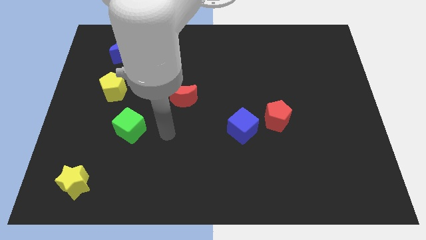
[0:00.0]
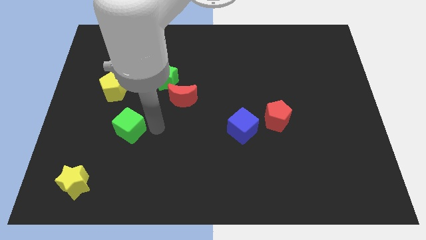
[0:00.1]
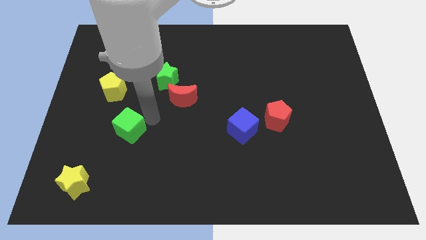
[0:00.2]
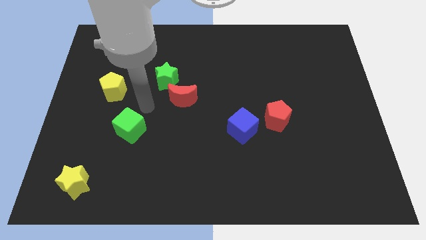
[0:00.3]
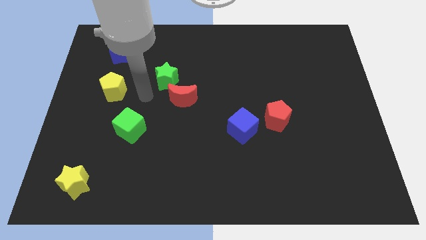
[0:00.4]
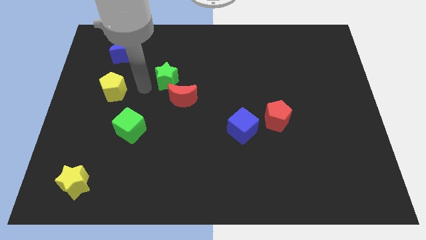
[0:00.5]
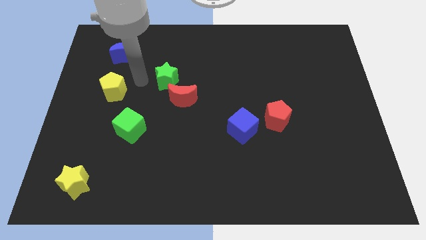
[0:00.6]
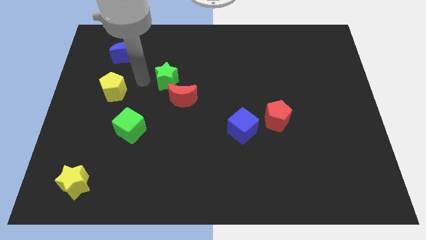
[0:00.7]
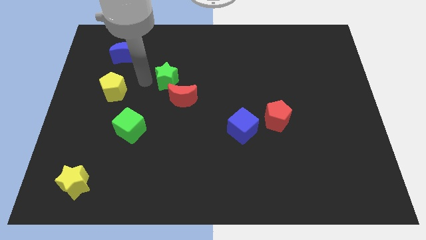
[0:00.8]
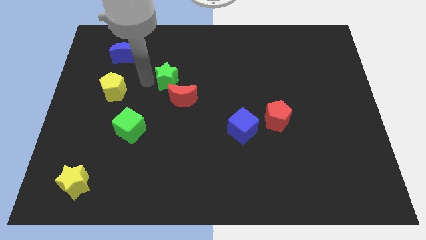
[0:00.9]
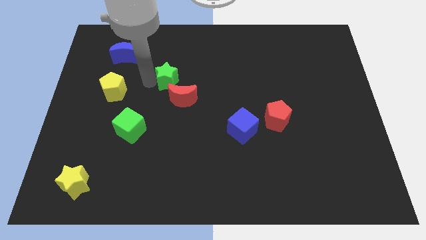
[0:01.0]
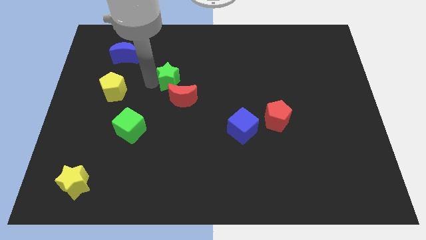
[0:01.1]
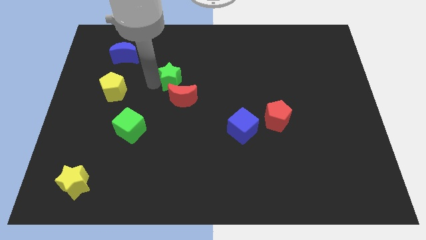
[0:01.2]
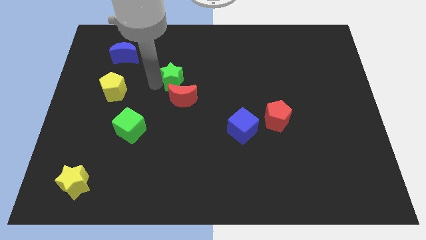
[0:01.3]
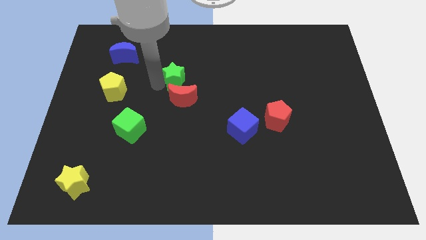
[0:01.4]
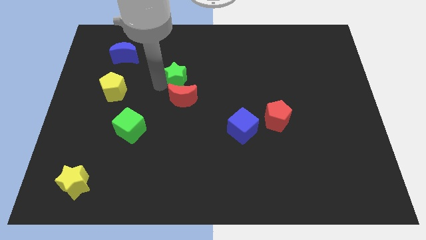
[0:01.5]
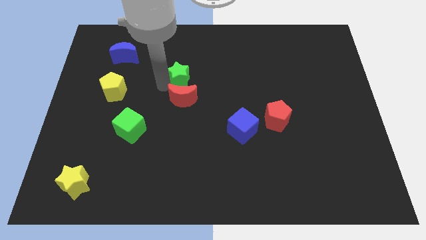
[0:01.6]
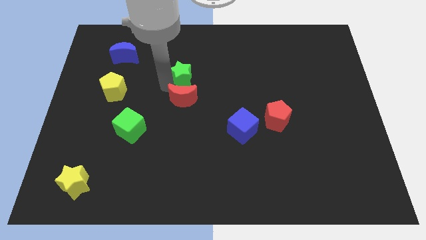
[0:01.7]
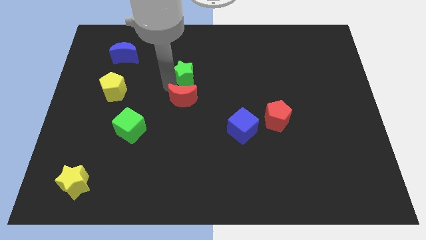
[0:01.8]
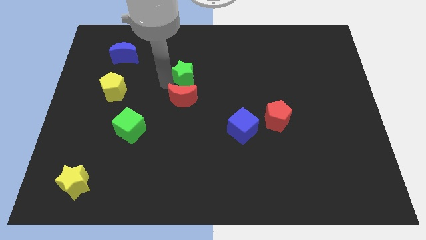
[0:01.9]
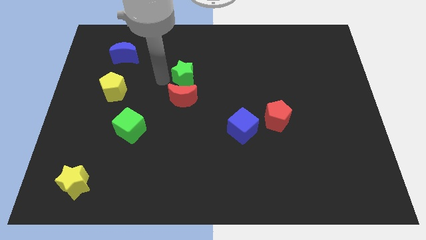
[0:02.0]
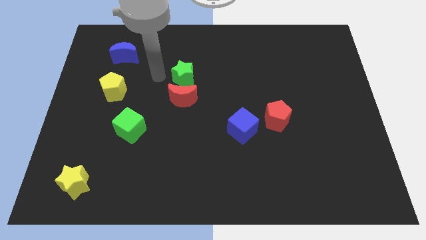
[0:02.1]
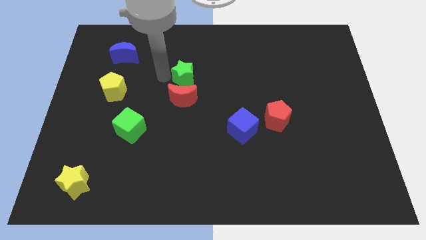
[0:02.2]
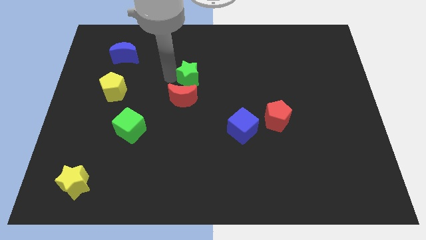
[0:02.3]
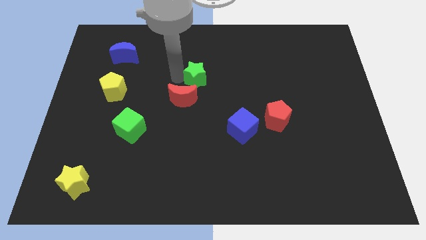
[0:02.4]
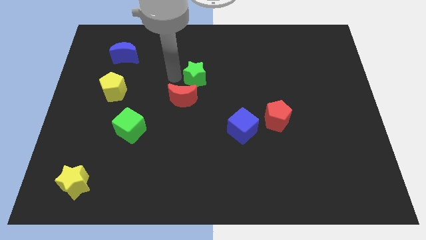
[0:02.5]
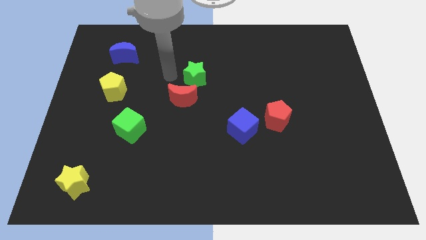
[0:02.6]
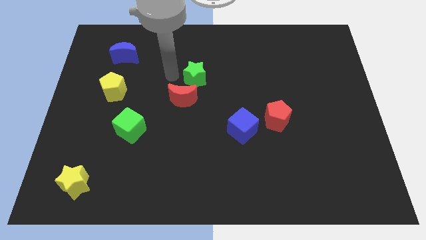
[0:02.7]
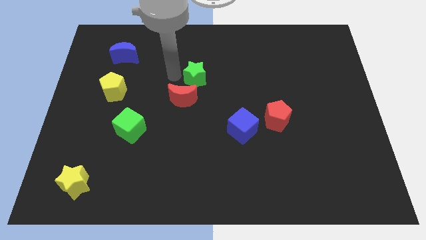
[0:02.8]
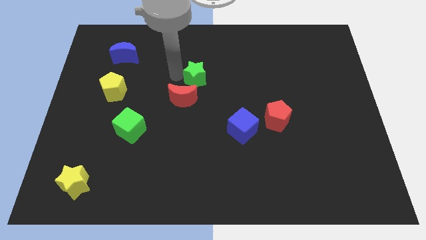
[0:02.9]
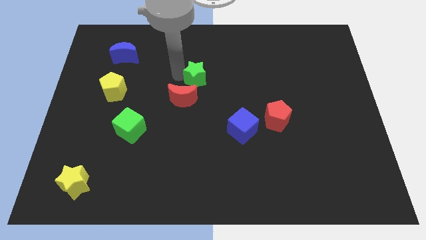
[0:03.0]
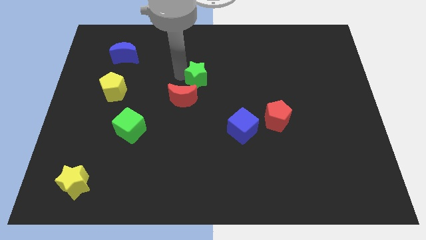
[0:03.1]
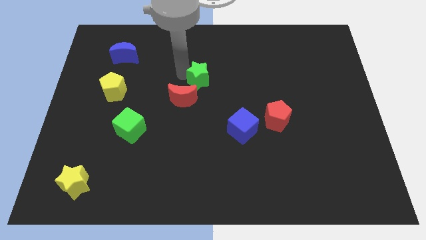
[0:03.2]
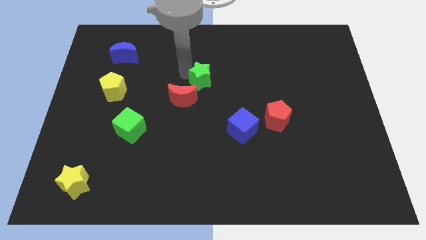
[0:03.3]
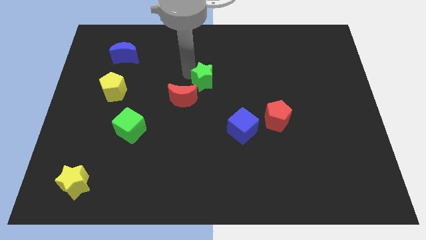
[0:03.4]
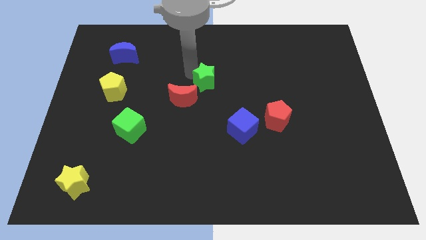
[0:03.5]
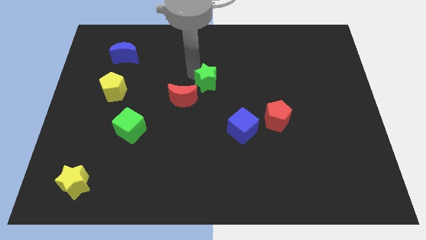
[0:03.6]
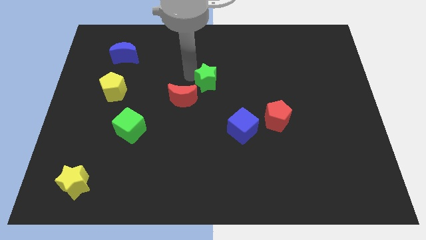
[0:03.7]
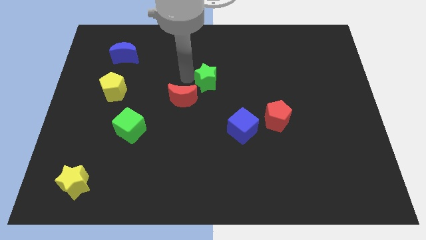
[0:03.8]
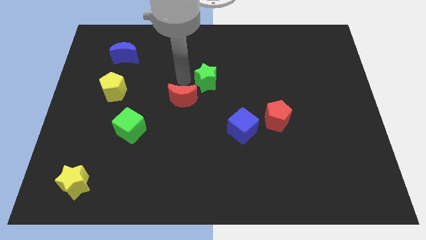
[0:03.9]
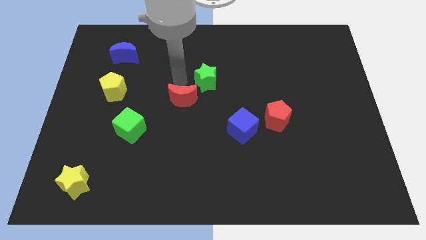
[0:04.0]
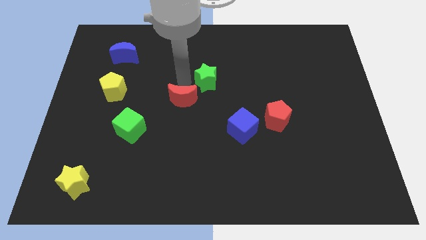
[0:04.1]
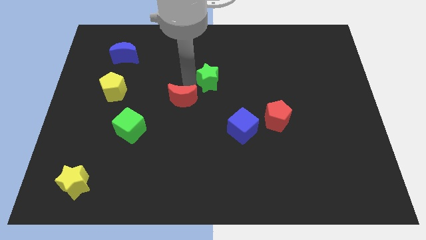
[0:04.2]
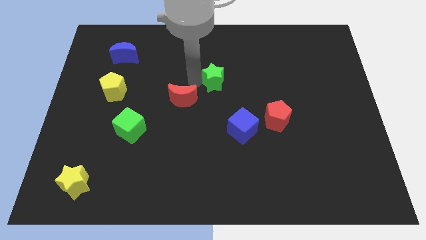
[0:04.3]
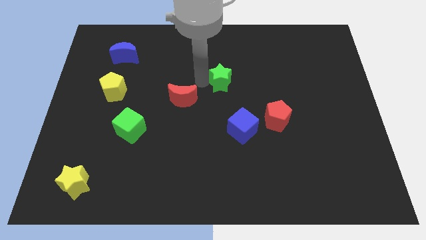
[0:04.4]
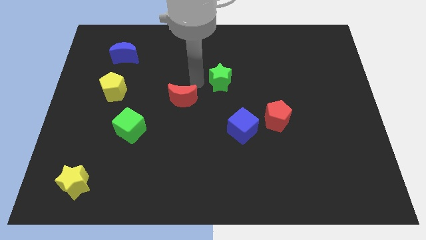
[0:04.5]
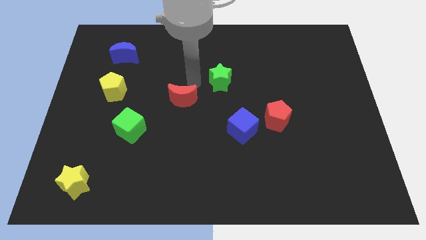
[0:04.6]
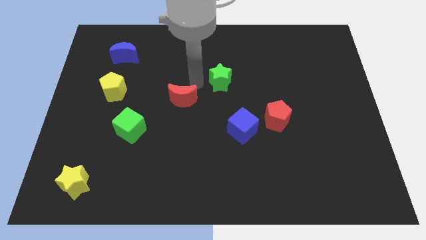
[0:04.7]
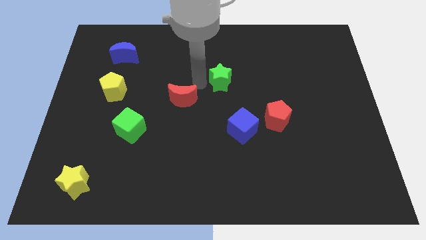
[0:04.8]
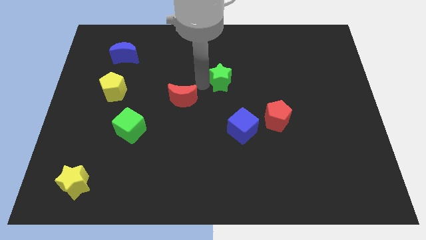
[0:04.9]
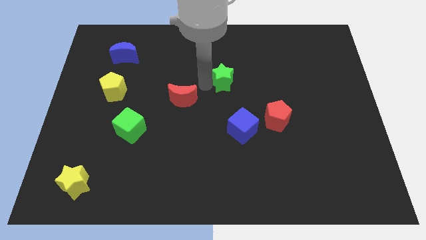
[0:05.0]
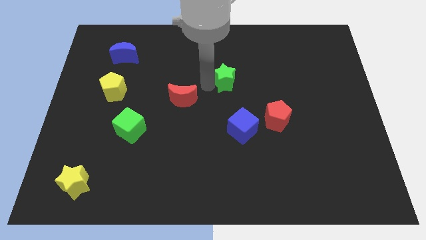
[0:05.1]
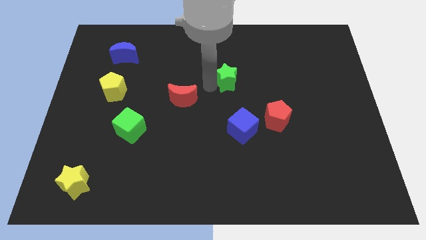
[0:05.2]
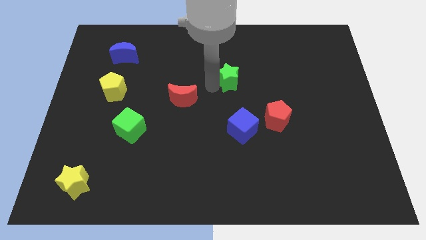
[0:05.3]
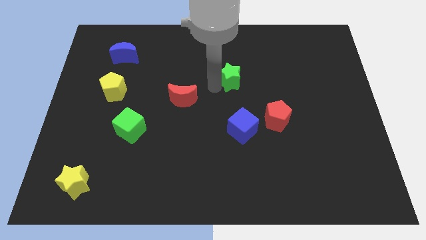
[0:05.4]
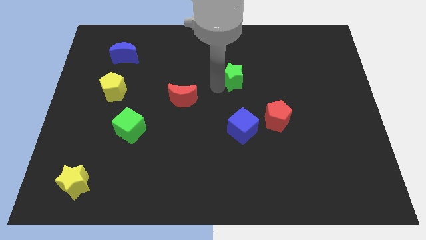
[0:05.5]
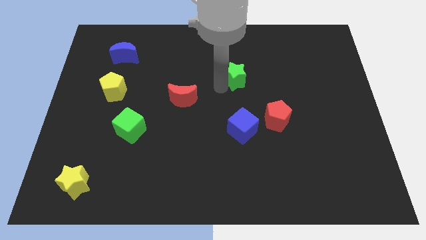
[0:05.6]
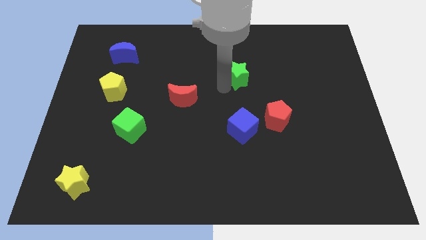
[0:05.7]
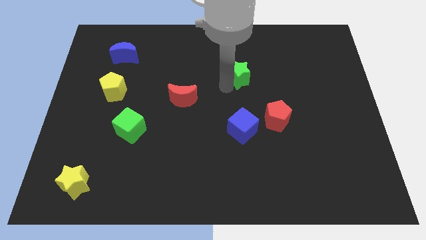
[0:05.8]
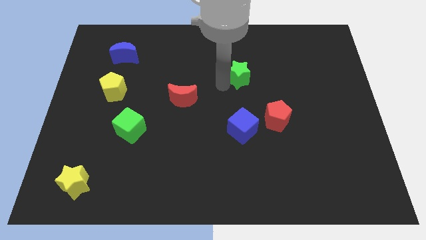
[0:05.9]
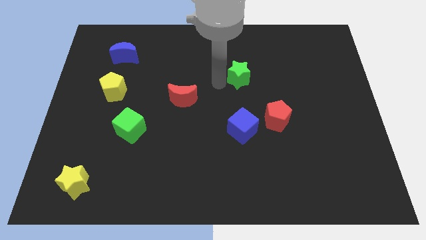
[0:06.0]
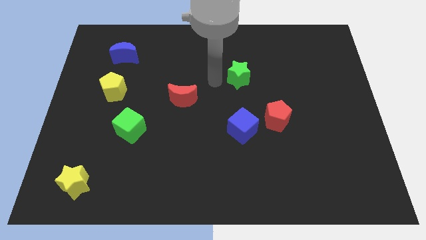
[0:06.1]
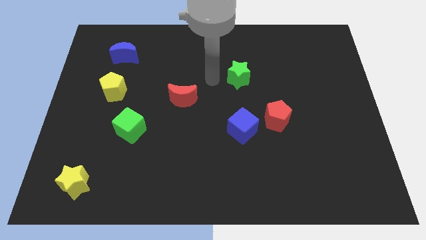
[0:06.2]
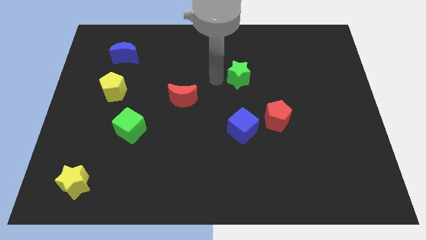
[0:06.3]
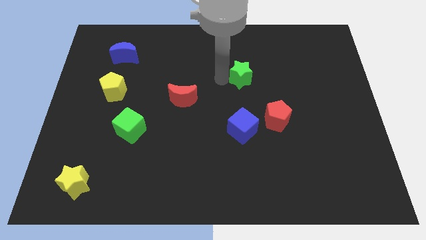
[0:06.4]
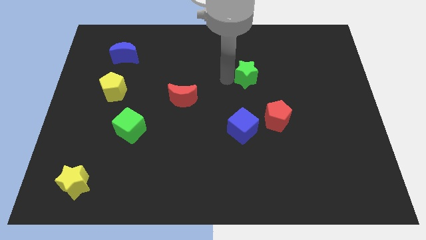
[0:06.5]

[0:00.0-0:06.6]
slide the green star right

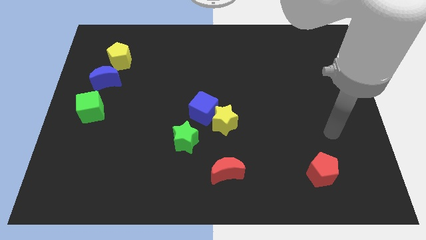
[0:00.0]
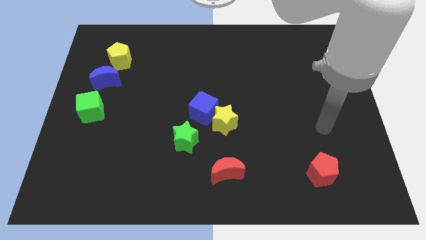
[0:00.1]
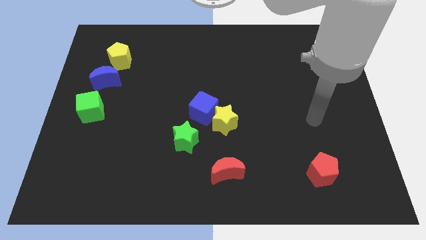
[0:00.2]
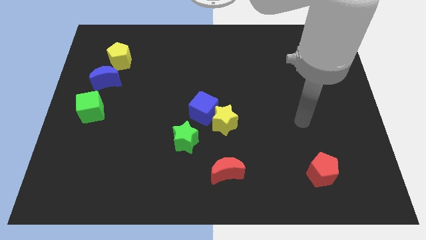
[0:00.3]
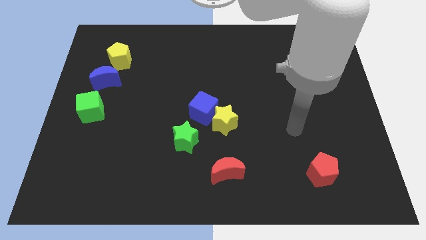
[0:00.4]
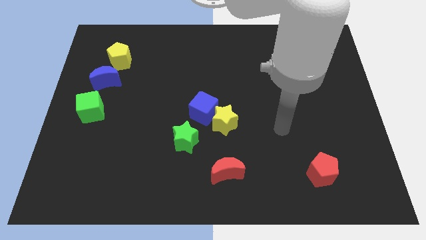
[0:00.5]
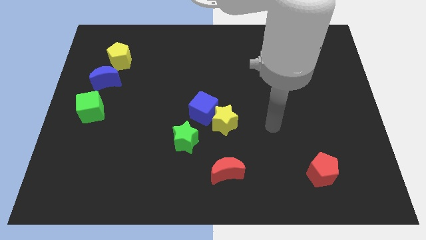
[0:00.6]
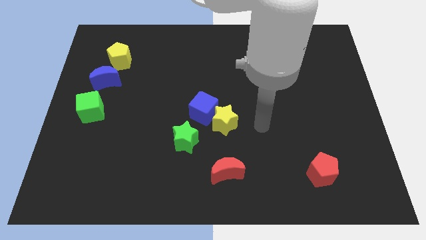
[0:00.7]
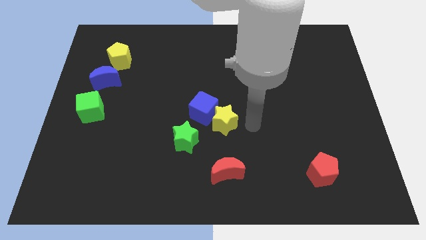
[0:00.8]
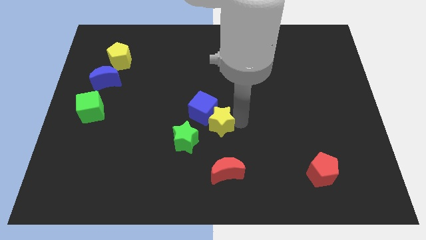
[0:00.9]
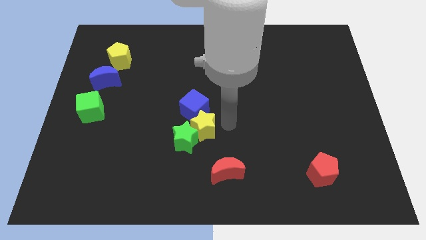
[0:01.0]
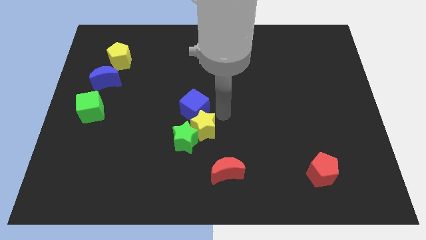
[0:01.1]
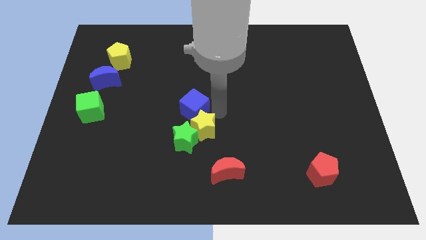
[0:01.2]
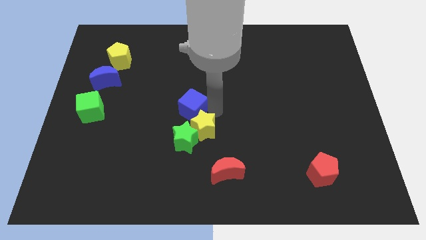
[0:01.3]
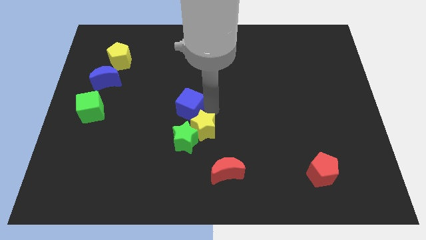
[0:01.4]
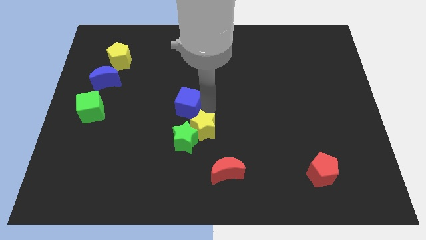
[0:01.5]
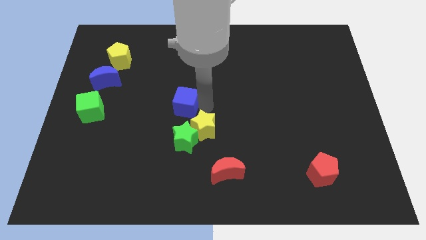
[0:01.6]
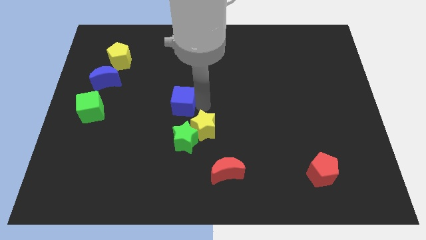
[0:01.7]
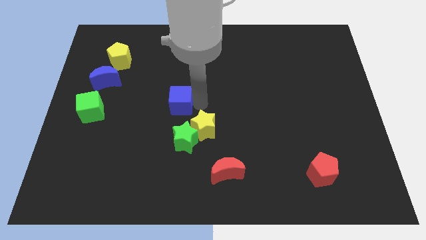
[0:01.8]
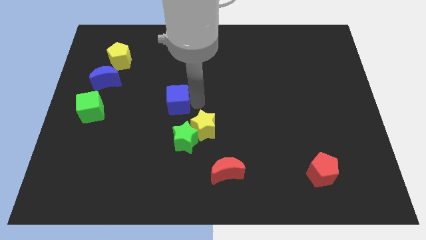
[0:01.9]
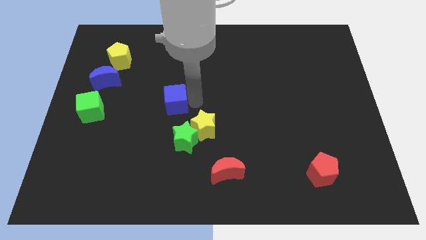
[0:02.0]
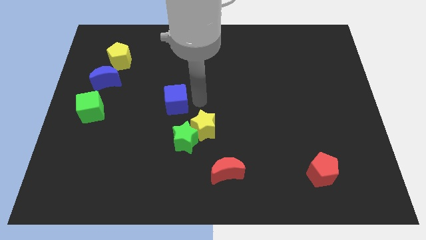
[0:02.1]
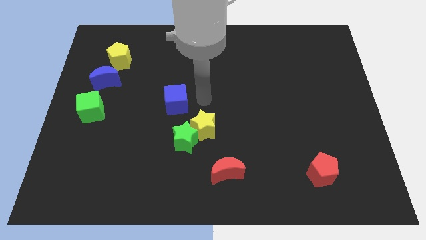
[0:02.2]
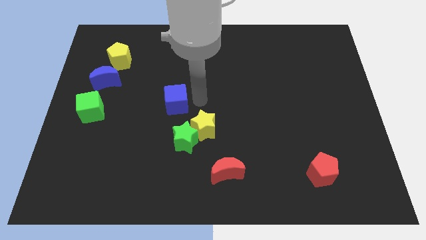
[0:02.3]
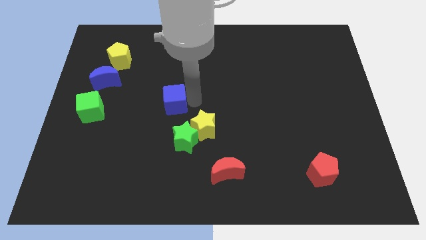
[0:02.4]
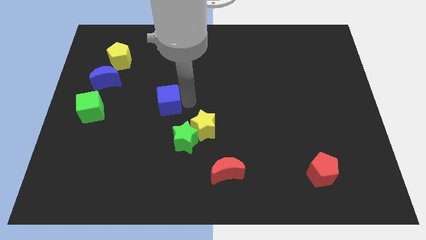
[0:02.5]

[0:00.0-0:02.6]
move the blue cube a little to the left
